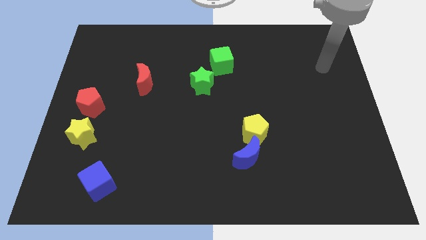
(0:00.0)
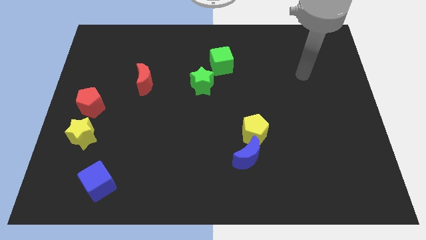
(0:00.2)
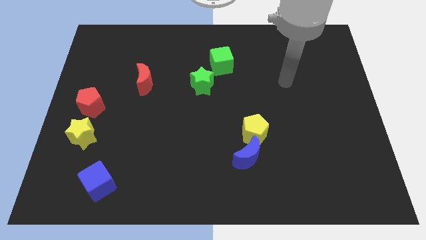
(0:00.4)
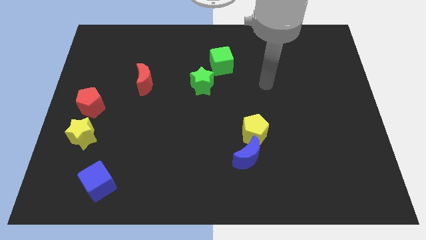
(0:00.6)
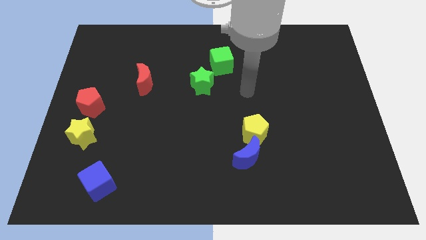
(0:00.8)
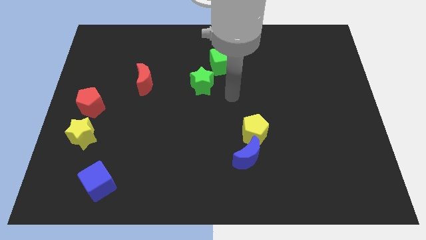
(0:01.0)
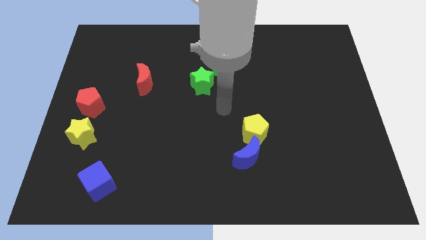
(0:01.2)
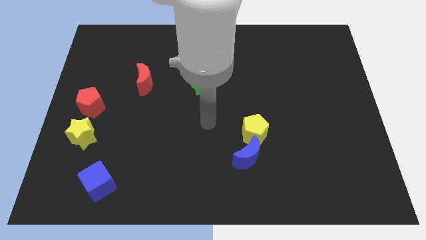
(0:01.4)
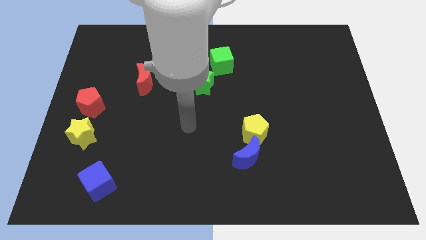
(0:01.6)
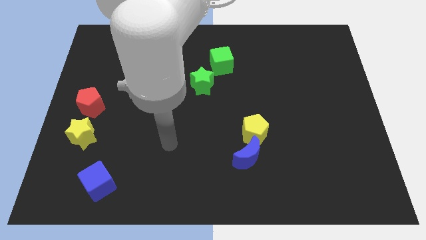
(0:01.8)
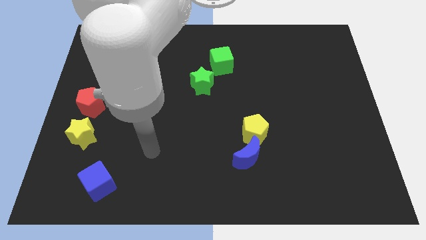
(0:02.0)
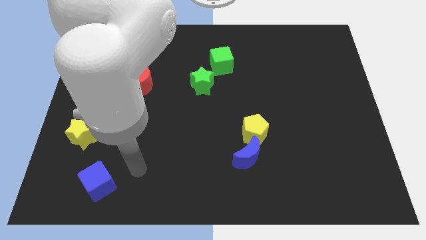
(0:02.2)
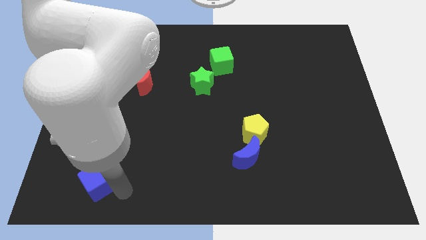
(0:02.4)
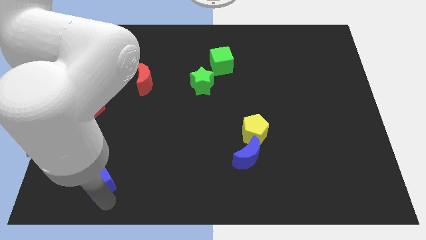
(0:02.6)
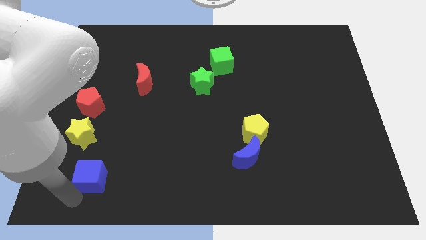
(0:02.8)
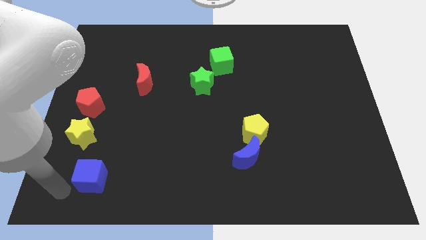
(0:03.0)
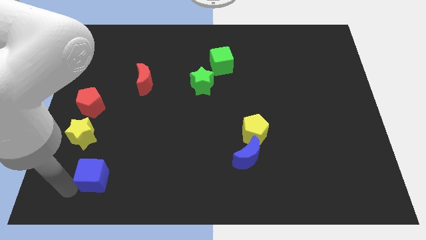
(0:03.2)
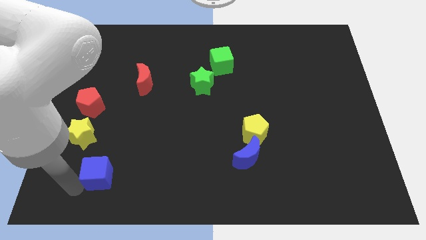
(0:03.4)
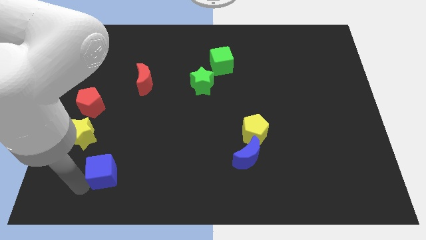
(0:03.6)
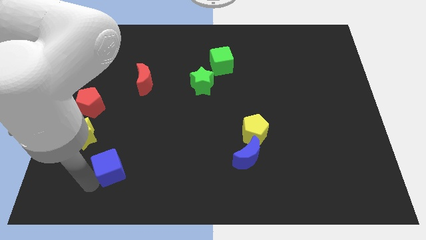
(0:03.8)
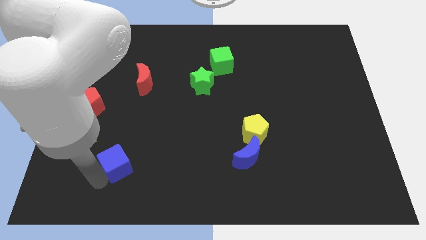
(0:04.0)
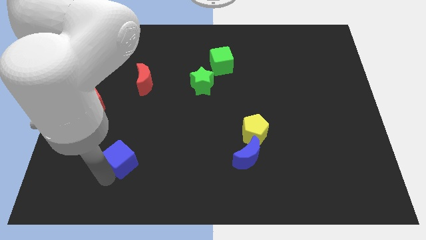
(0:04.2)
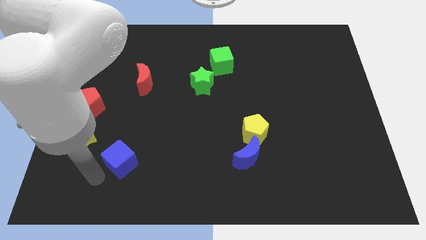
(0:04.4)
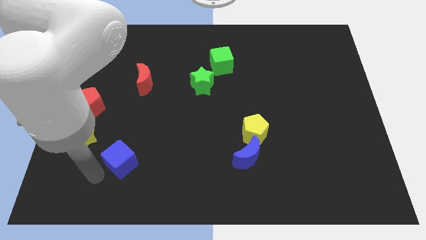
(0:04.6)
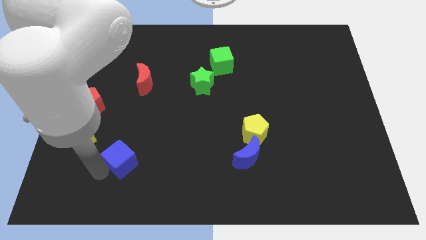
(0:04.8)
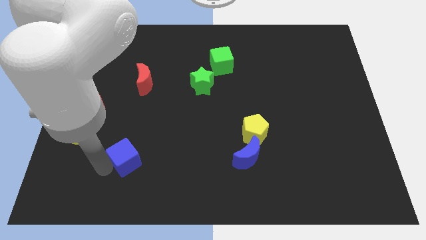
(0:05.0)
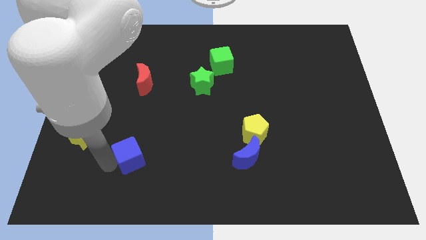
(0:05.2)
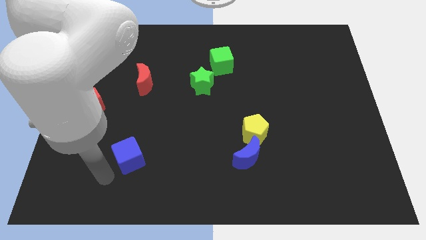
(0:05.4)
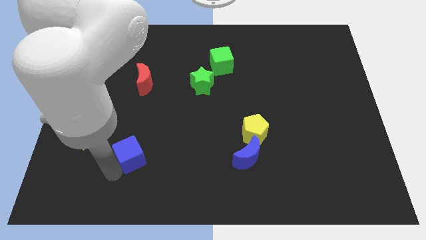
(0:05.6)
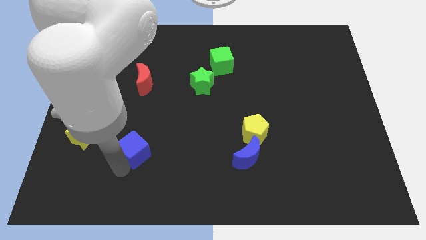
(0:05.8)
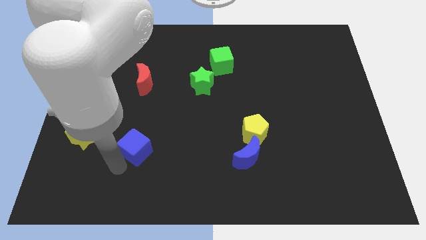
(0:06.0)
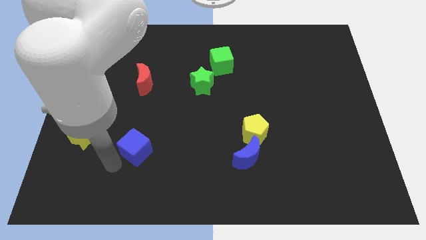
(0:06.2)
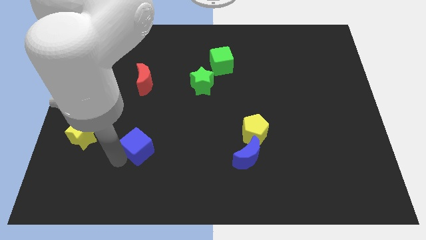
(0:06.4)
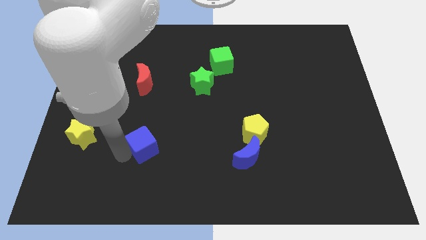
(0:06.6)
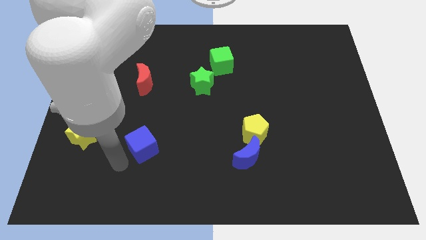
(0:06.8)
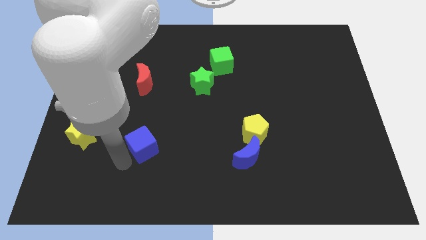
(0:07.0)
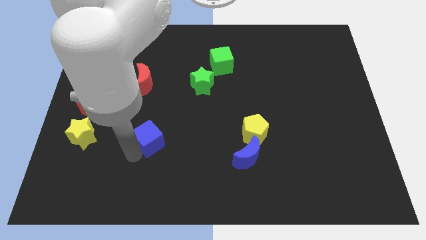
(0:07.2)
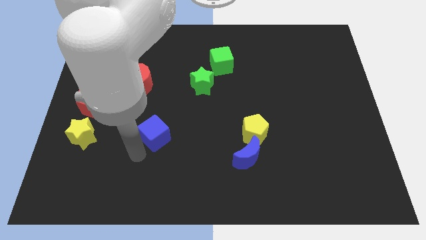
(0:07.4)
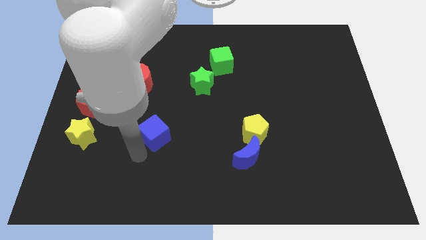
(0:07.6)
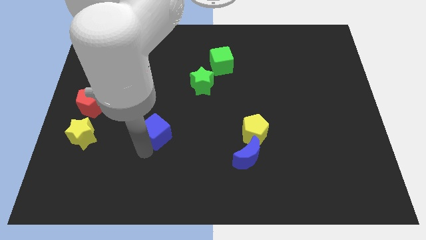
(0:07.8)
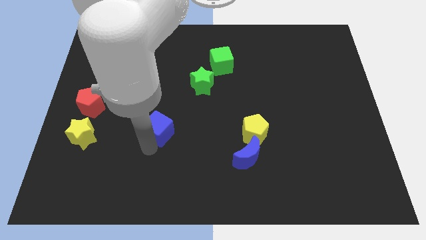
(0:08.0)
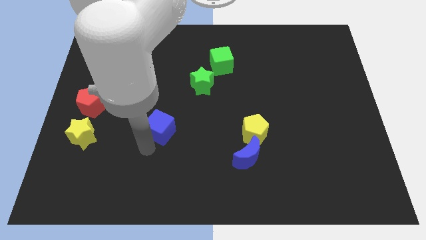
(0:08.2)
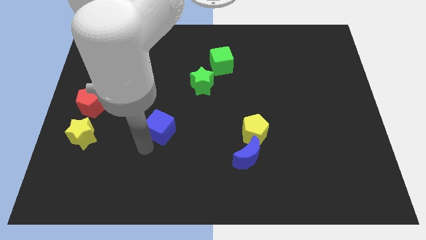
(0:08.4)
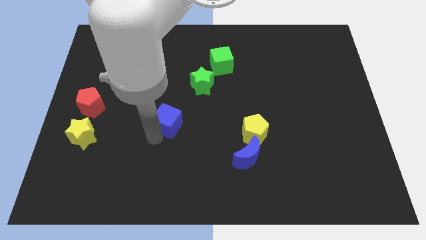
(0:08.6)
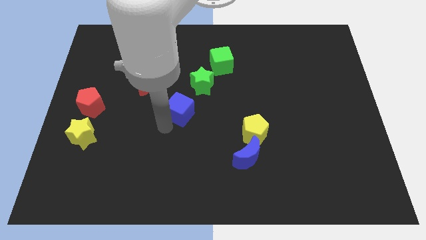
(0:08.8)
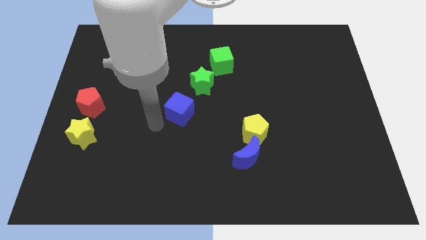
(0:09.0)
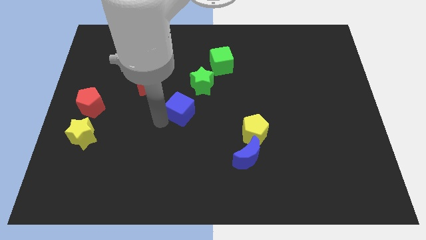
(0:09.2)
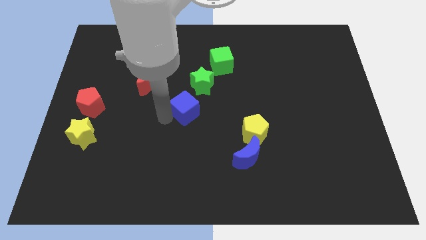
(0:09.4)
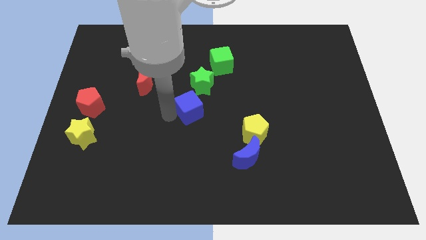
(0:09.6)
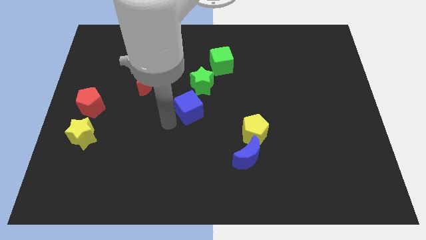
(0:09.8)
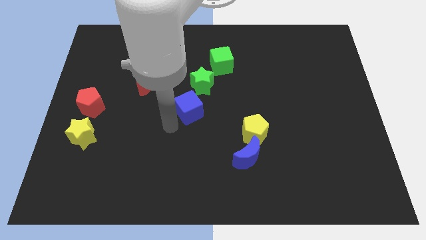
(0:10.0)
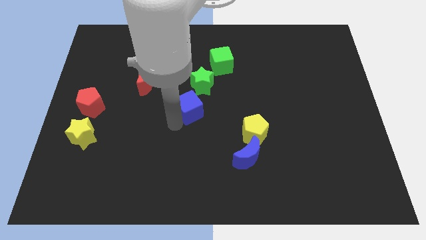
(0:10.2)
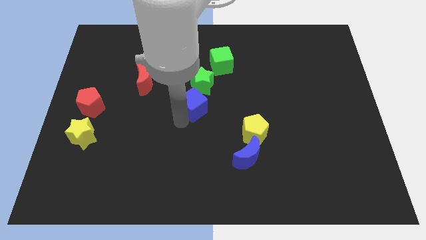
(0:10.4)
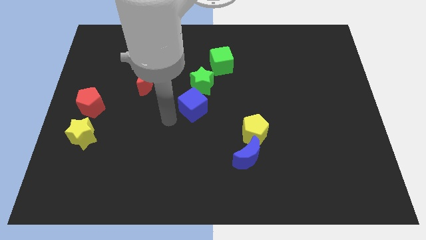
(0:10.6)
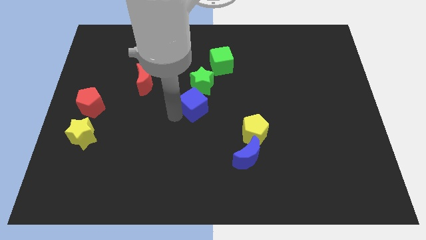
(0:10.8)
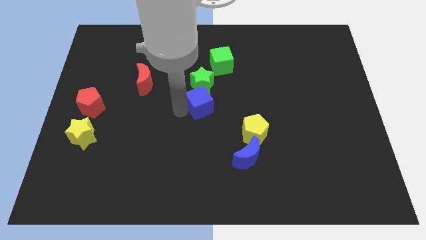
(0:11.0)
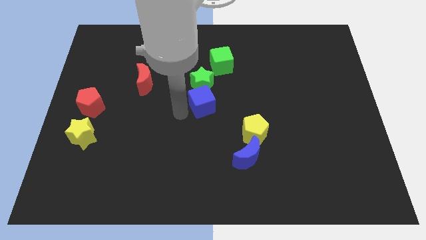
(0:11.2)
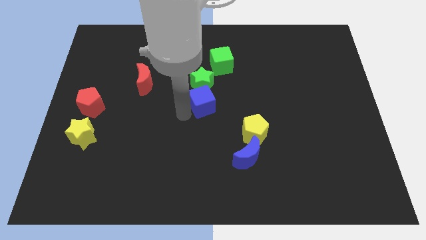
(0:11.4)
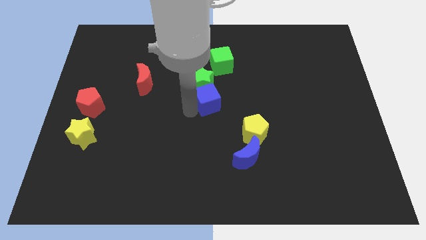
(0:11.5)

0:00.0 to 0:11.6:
push the blue cube below the green cube

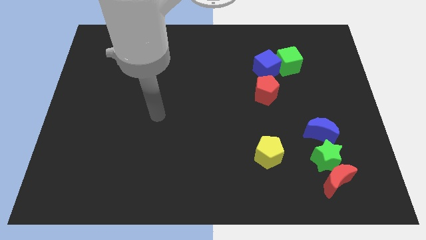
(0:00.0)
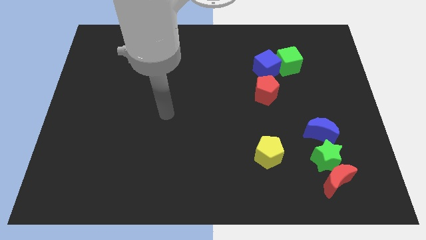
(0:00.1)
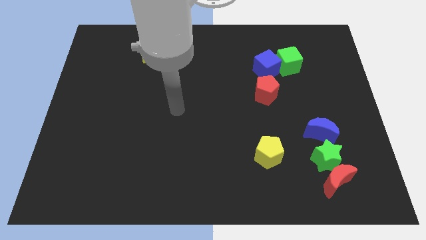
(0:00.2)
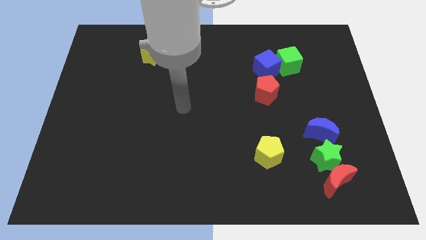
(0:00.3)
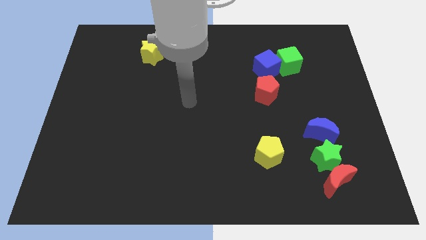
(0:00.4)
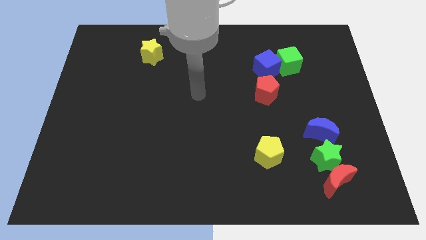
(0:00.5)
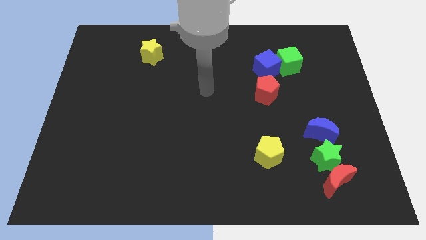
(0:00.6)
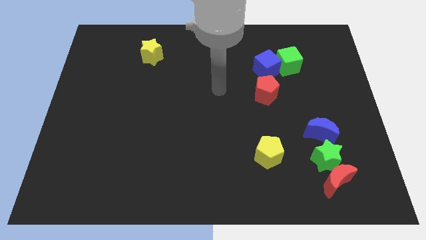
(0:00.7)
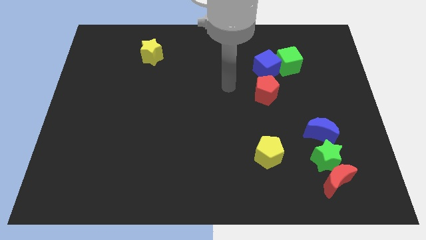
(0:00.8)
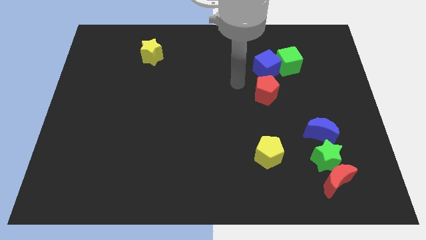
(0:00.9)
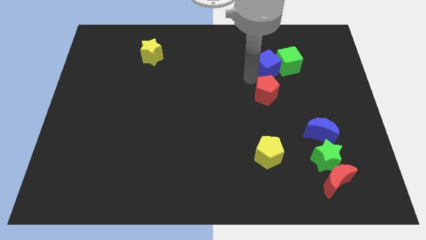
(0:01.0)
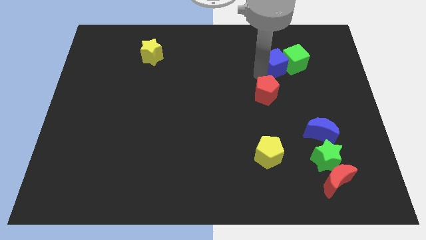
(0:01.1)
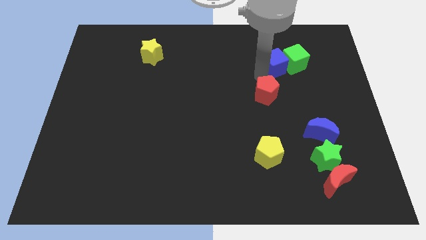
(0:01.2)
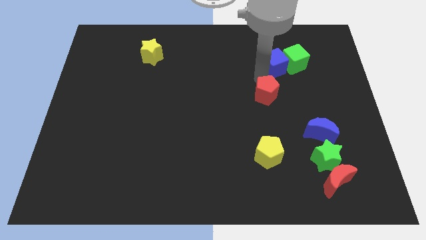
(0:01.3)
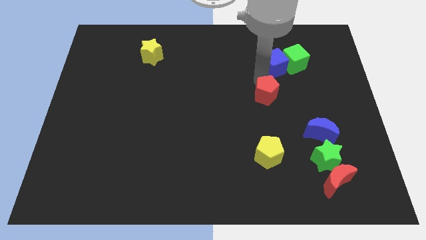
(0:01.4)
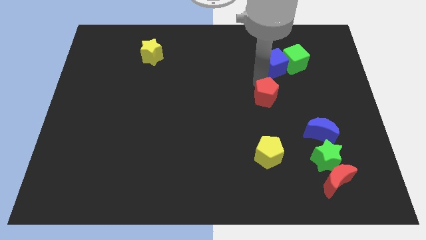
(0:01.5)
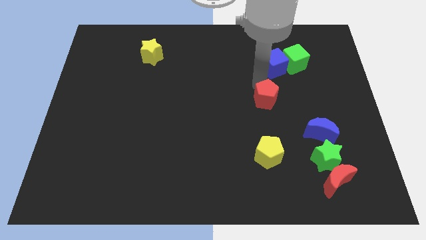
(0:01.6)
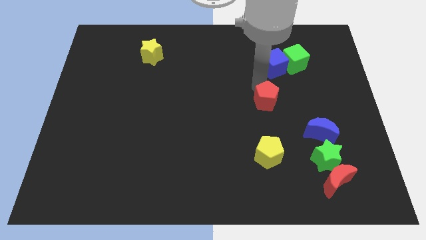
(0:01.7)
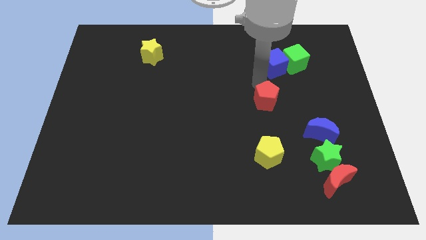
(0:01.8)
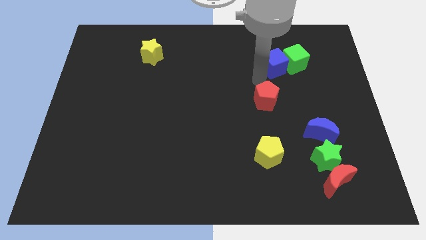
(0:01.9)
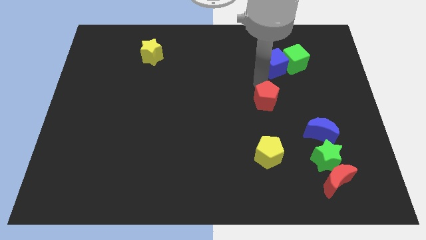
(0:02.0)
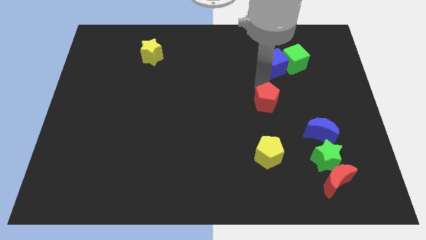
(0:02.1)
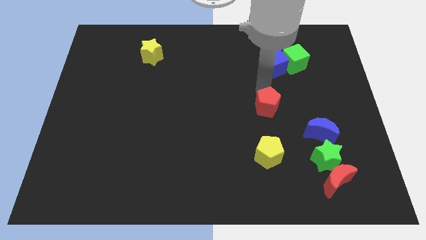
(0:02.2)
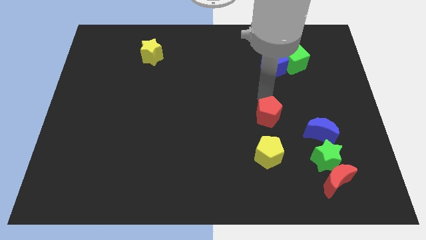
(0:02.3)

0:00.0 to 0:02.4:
move the red pentagon just left of the blue moon
